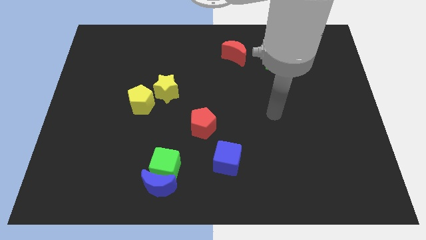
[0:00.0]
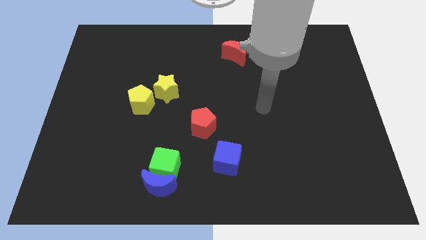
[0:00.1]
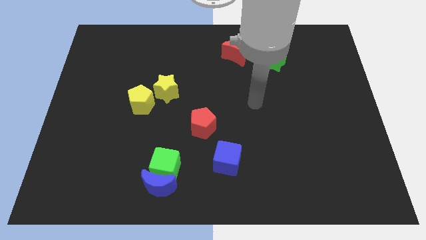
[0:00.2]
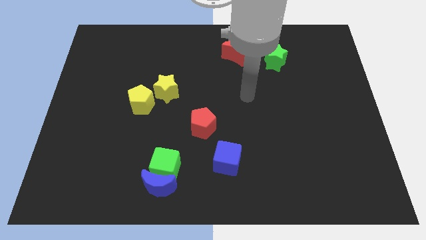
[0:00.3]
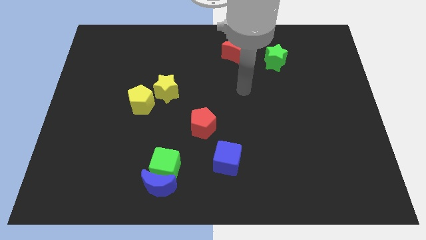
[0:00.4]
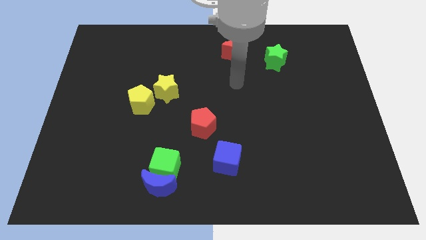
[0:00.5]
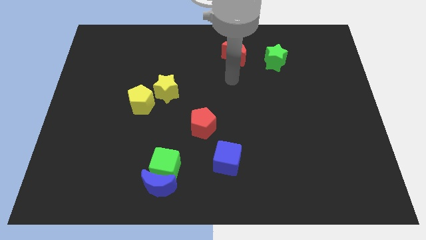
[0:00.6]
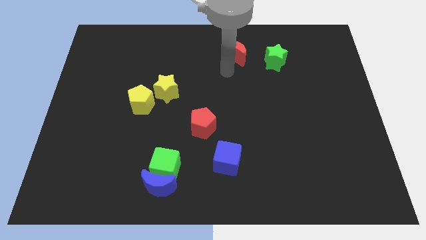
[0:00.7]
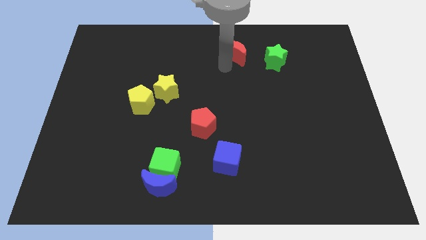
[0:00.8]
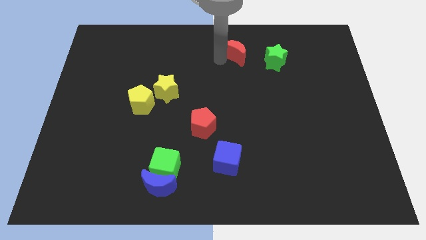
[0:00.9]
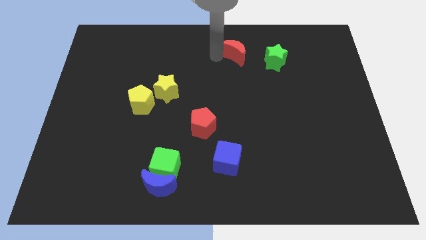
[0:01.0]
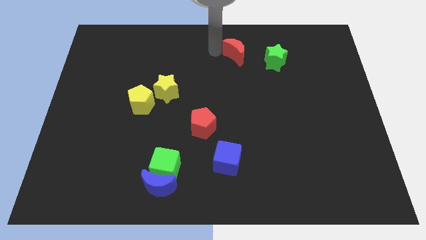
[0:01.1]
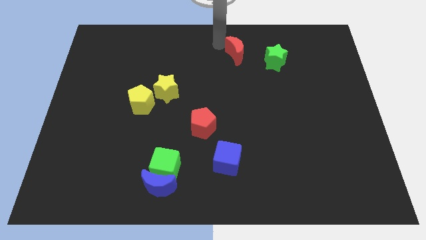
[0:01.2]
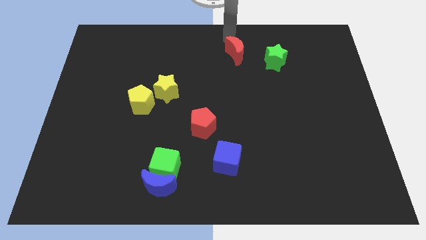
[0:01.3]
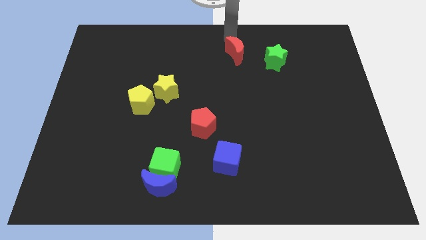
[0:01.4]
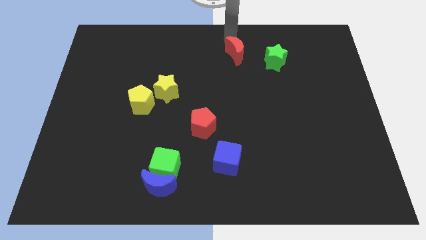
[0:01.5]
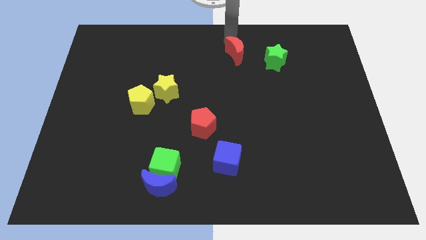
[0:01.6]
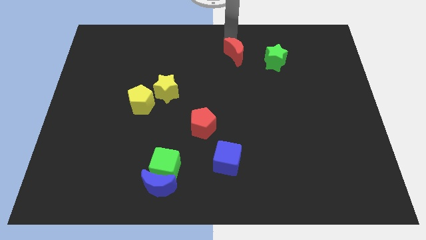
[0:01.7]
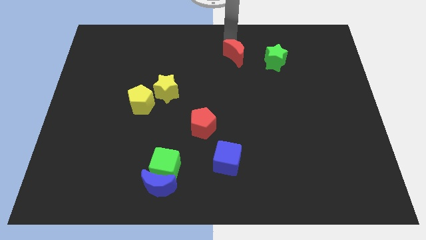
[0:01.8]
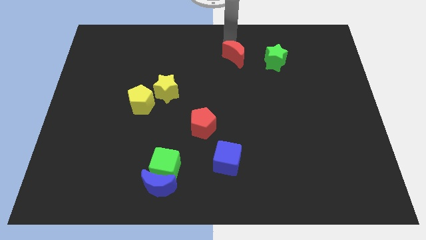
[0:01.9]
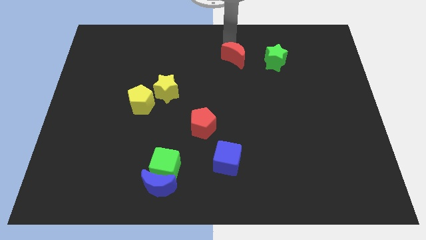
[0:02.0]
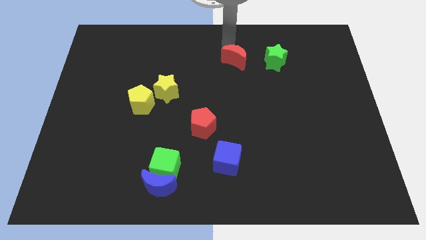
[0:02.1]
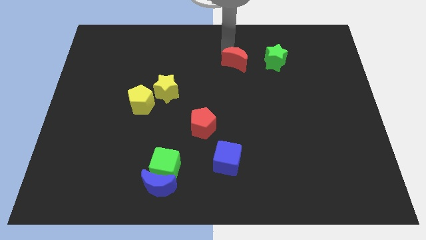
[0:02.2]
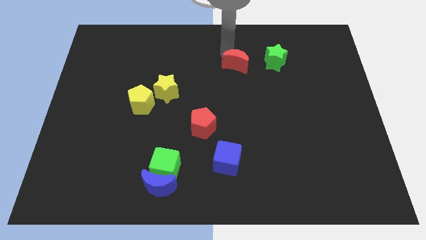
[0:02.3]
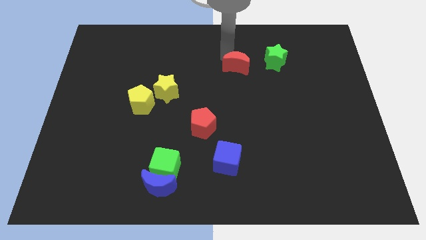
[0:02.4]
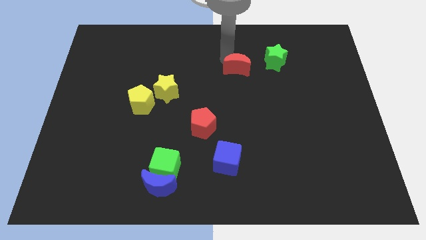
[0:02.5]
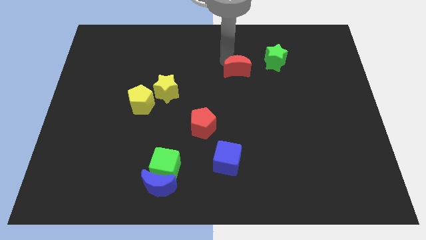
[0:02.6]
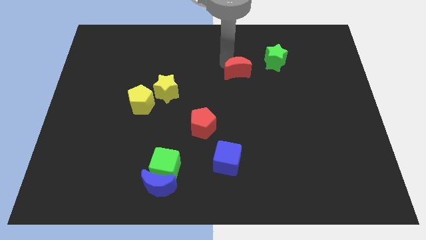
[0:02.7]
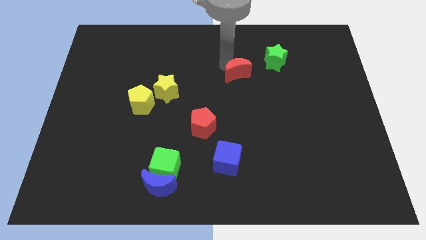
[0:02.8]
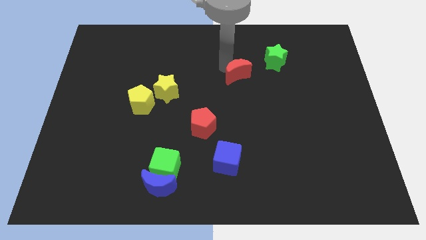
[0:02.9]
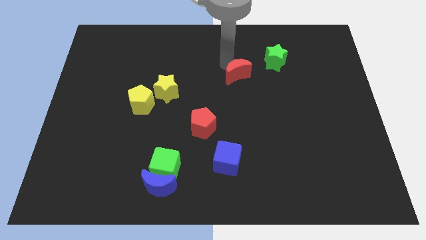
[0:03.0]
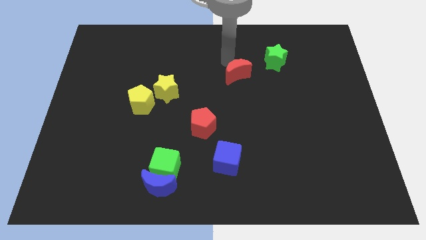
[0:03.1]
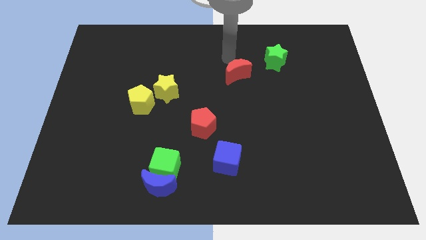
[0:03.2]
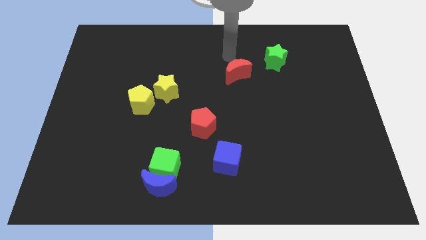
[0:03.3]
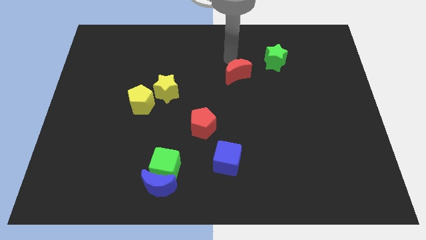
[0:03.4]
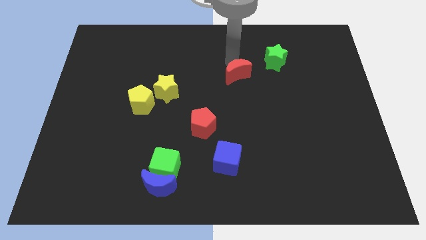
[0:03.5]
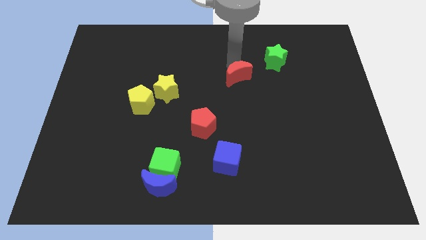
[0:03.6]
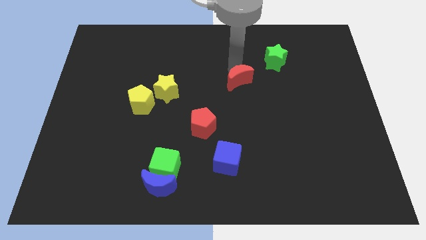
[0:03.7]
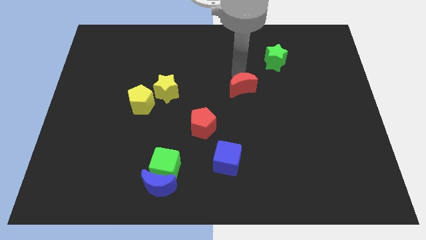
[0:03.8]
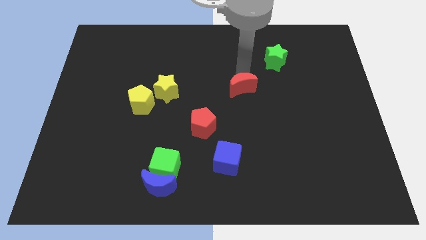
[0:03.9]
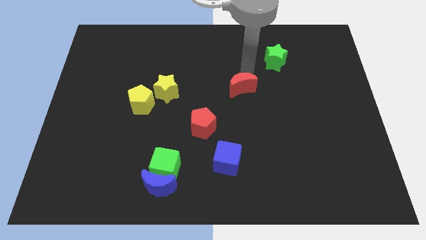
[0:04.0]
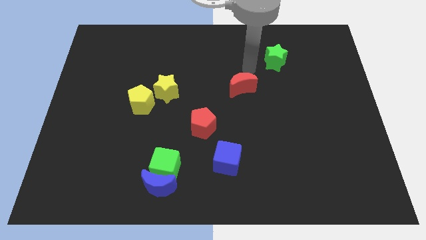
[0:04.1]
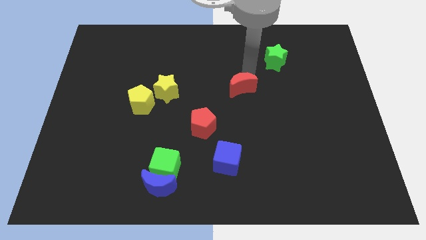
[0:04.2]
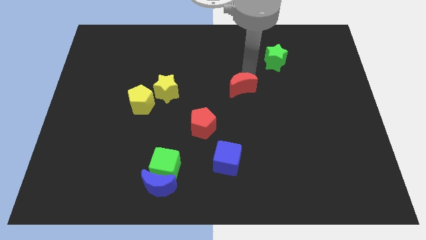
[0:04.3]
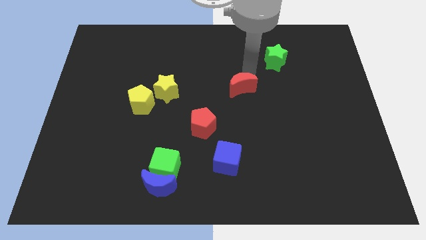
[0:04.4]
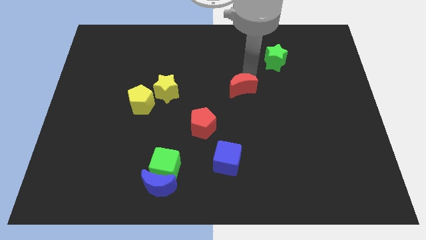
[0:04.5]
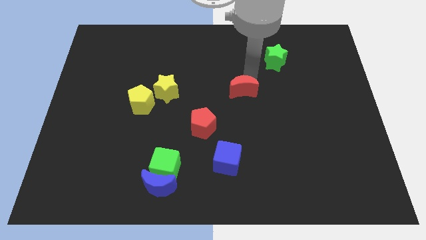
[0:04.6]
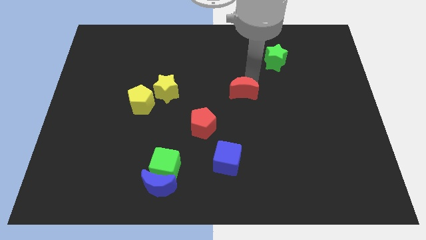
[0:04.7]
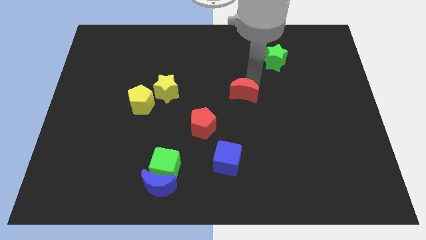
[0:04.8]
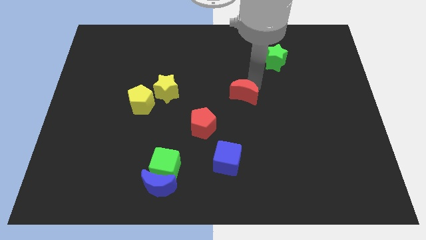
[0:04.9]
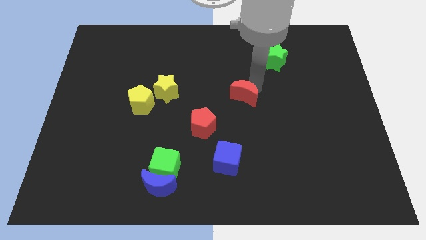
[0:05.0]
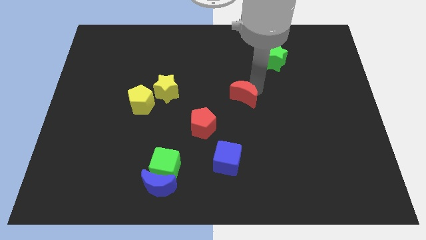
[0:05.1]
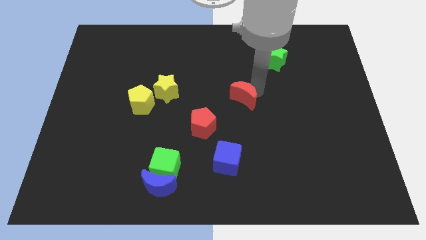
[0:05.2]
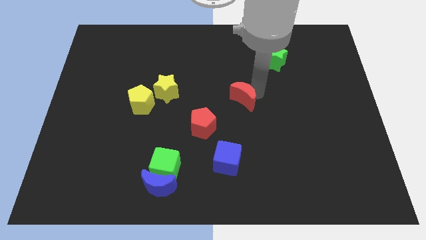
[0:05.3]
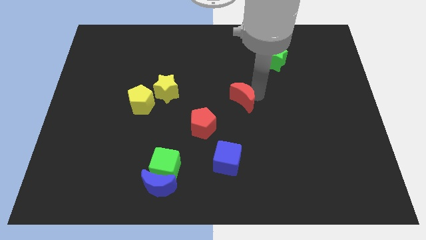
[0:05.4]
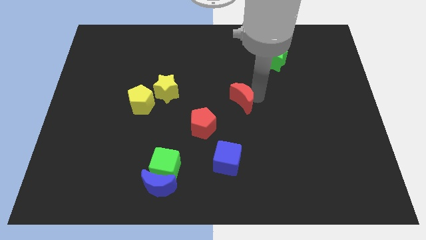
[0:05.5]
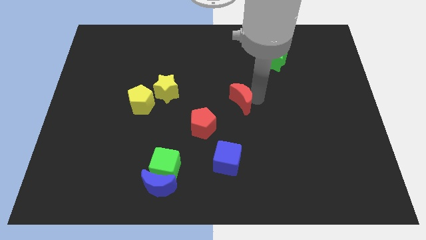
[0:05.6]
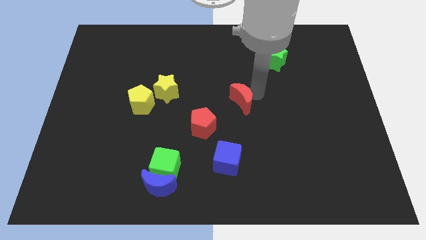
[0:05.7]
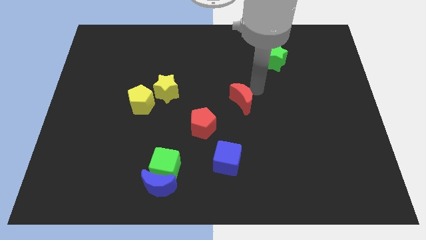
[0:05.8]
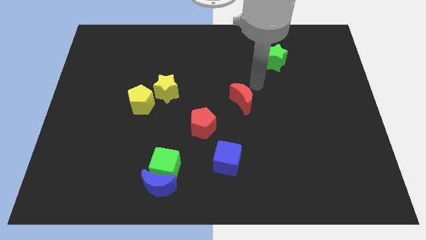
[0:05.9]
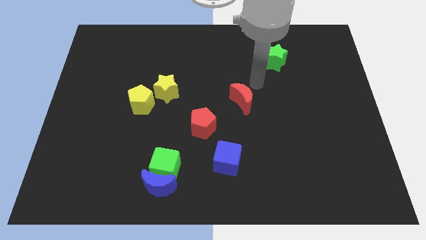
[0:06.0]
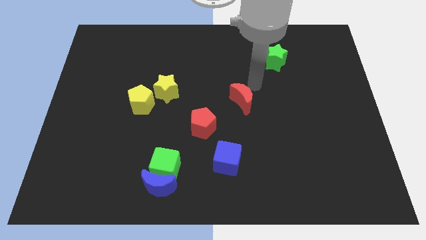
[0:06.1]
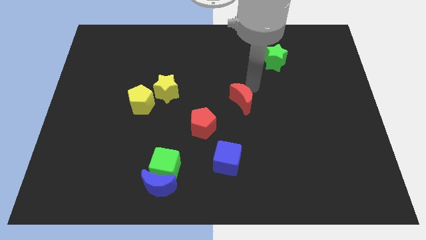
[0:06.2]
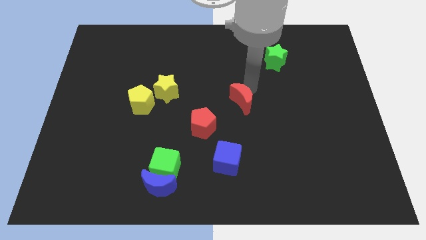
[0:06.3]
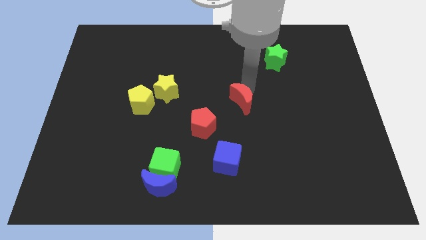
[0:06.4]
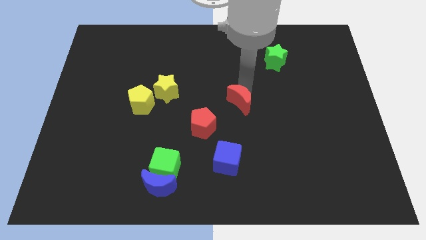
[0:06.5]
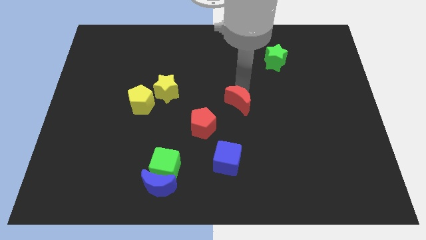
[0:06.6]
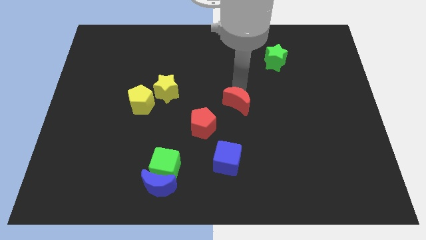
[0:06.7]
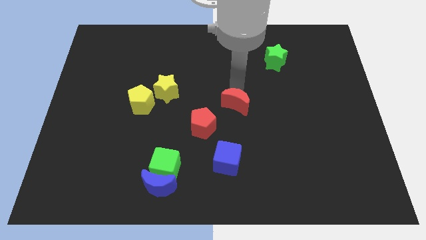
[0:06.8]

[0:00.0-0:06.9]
push the red moon to the top side of the blue cube
